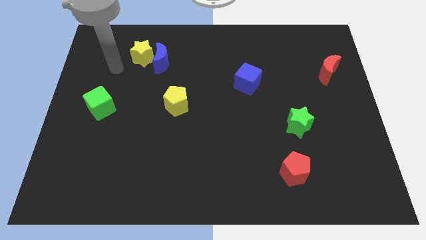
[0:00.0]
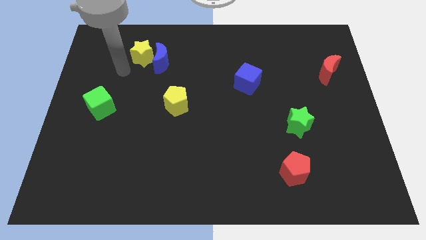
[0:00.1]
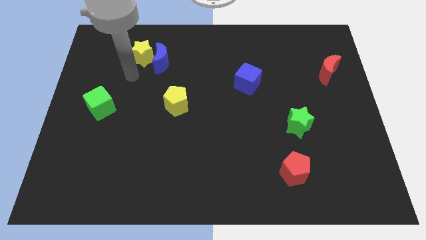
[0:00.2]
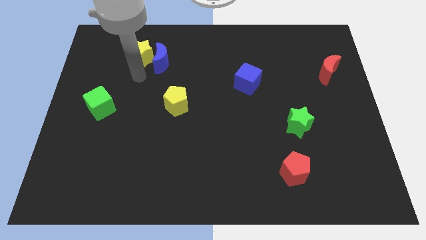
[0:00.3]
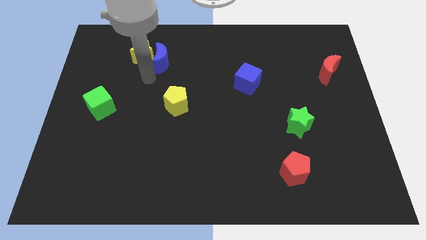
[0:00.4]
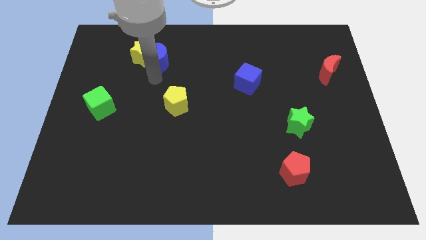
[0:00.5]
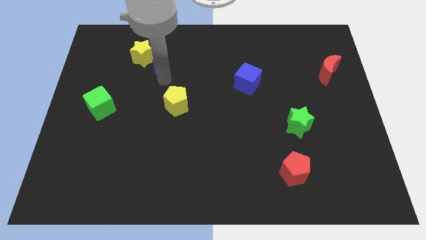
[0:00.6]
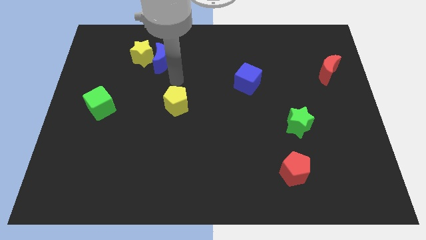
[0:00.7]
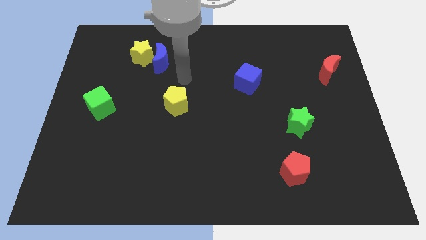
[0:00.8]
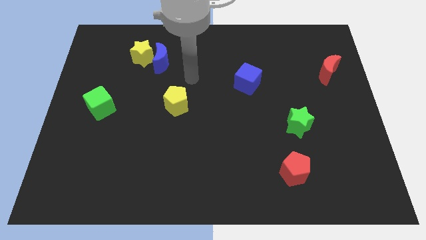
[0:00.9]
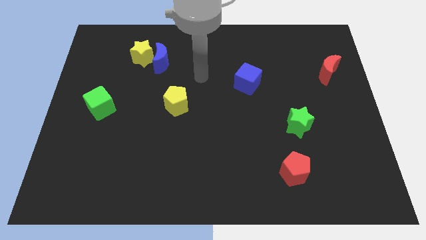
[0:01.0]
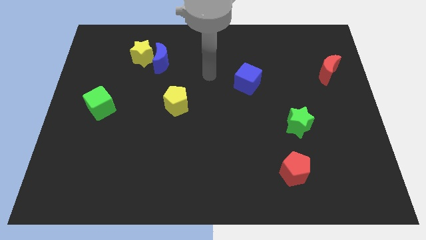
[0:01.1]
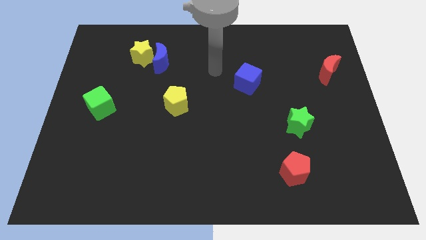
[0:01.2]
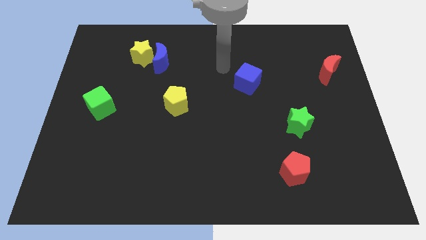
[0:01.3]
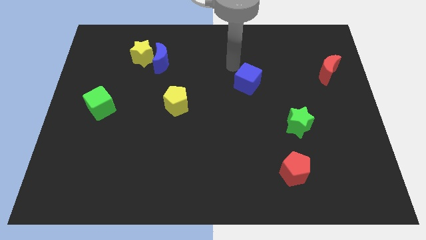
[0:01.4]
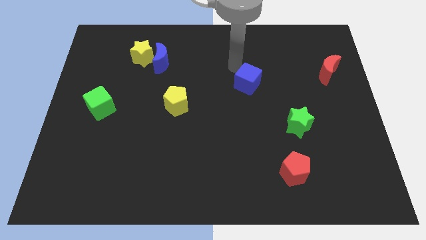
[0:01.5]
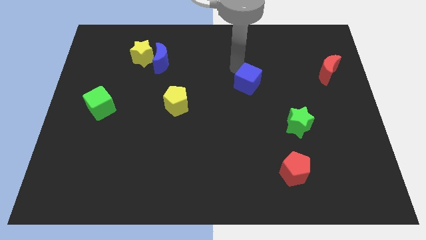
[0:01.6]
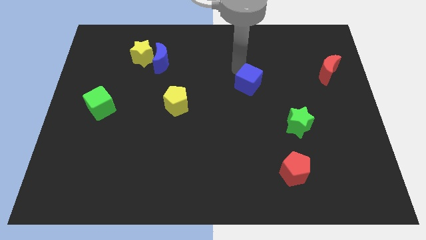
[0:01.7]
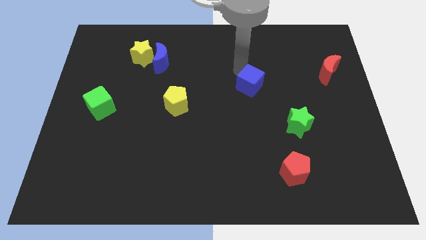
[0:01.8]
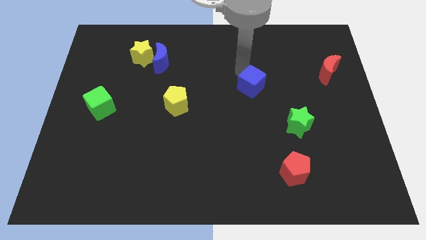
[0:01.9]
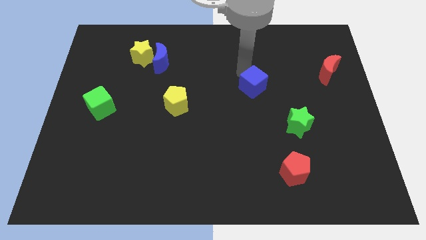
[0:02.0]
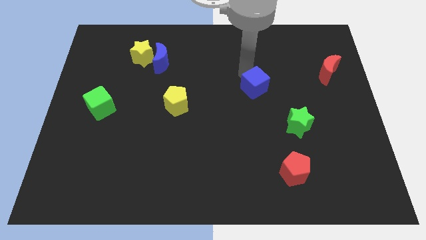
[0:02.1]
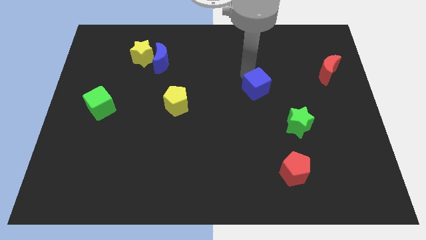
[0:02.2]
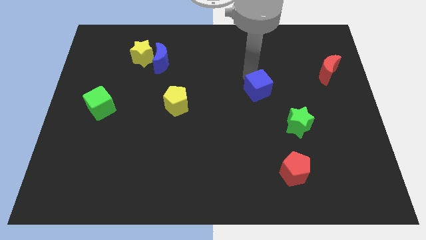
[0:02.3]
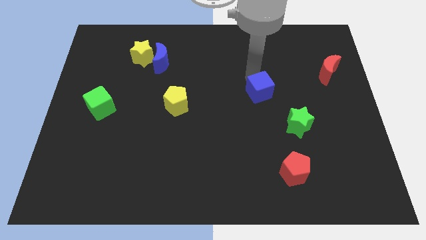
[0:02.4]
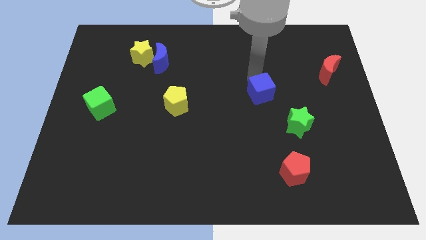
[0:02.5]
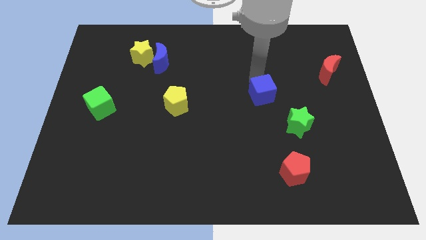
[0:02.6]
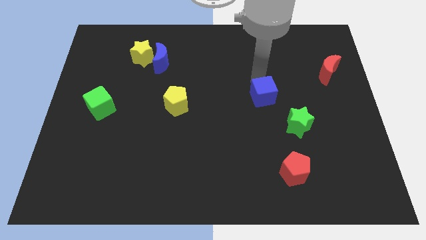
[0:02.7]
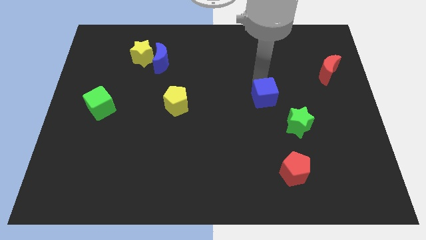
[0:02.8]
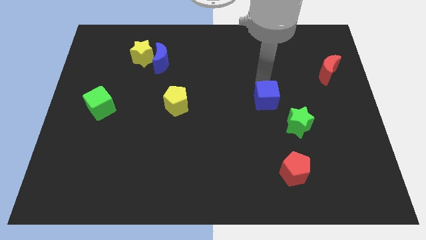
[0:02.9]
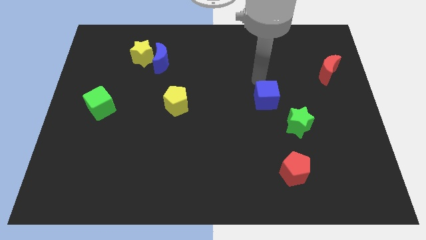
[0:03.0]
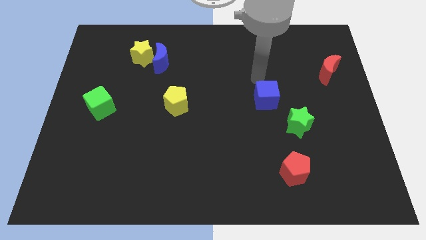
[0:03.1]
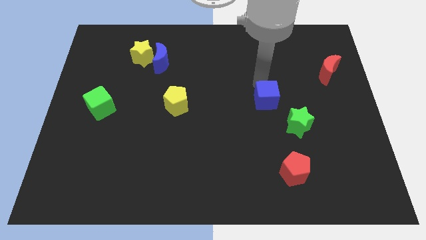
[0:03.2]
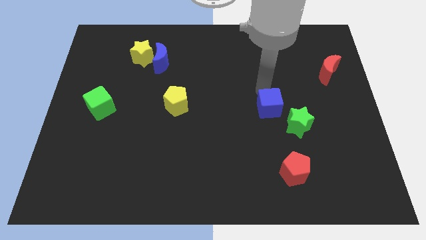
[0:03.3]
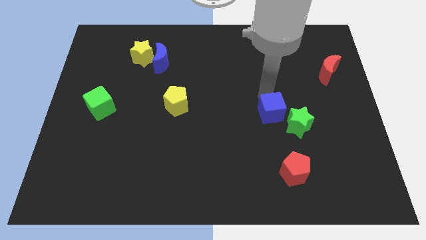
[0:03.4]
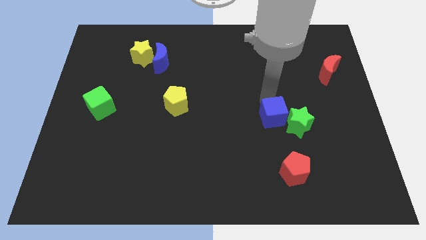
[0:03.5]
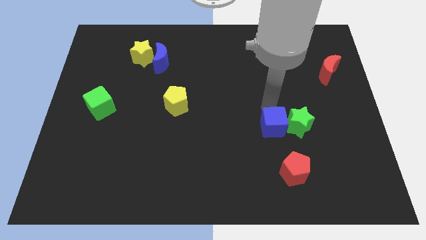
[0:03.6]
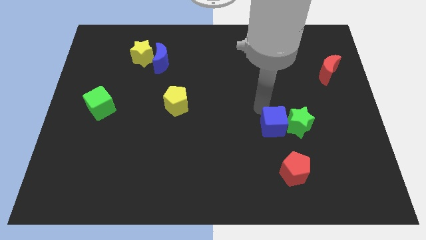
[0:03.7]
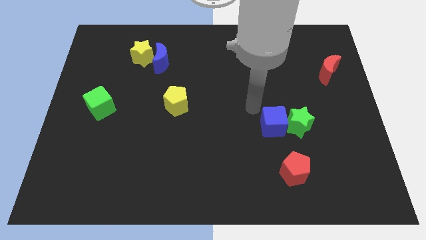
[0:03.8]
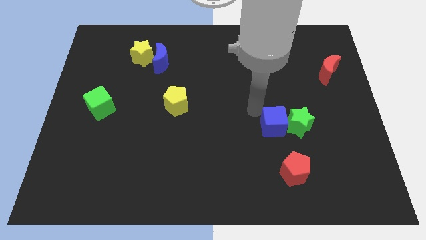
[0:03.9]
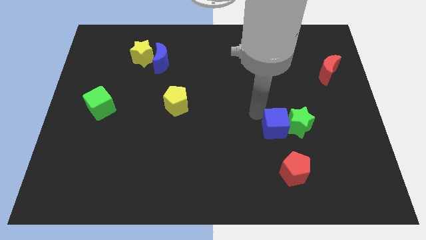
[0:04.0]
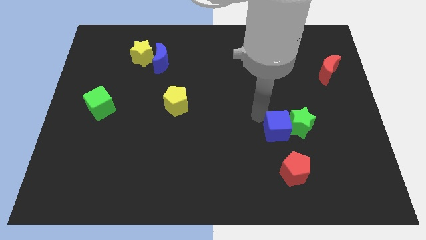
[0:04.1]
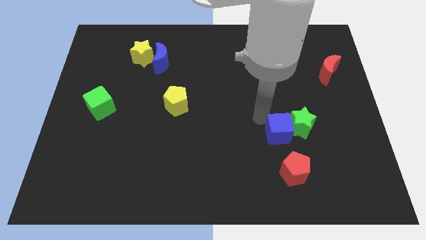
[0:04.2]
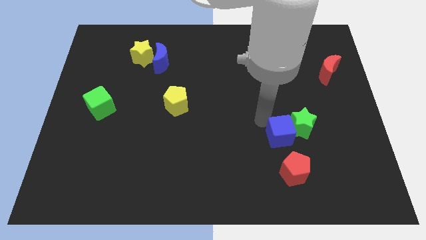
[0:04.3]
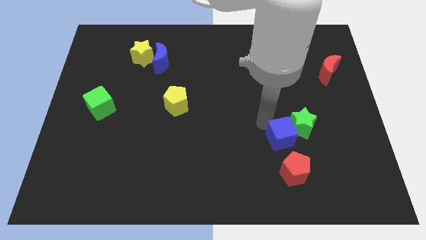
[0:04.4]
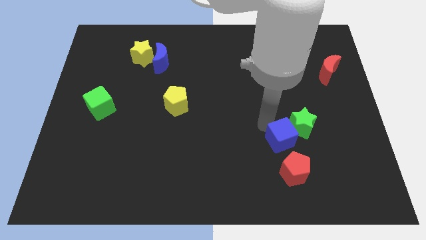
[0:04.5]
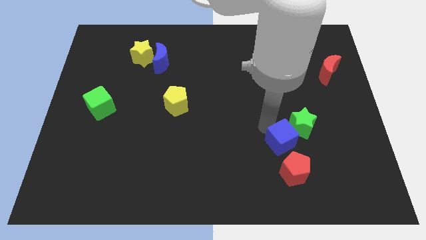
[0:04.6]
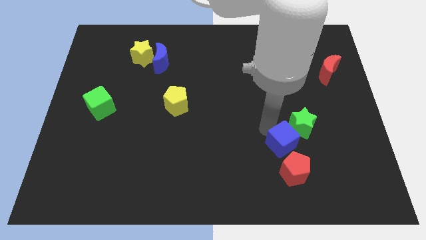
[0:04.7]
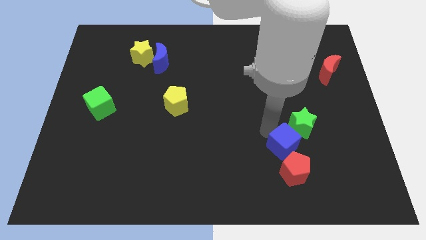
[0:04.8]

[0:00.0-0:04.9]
move the blue cube to the bottom of the green star
